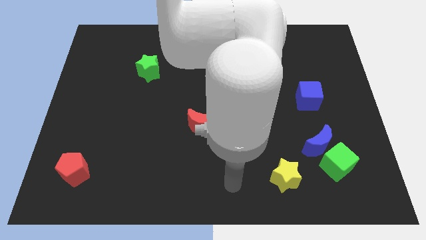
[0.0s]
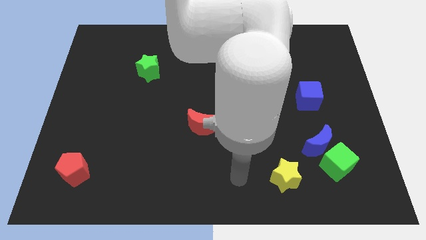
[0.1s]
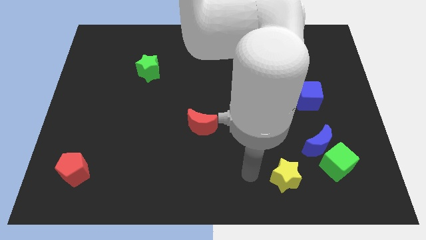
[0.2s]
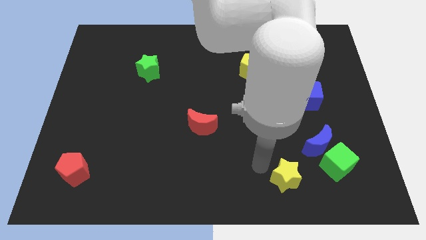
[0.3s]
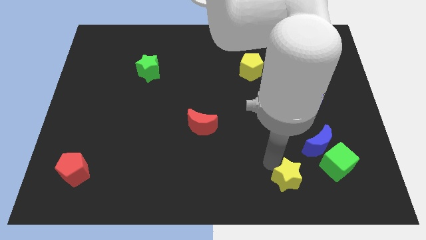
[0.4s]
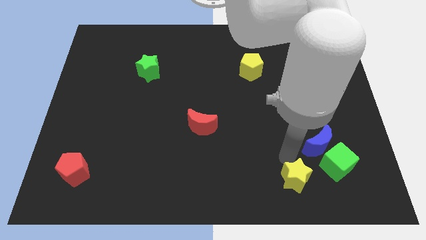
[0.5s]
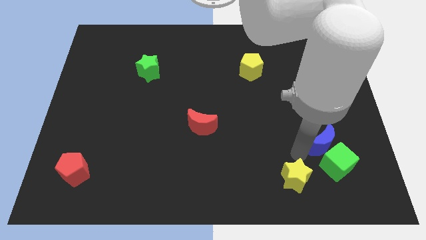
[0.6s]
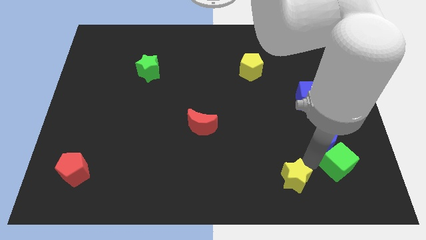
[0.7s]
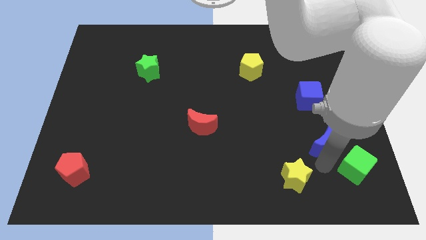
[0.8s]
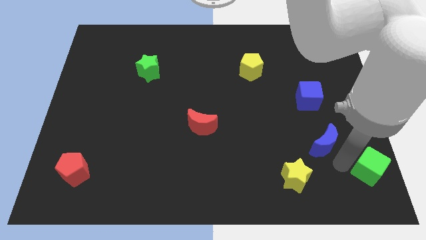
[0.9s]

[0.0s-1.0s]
separate the blue moon from the green cube

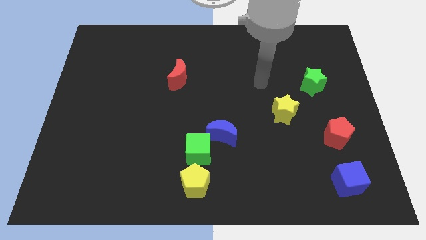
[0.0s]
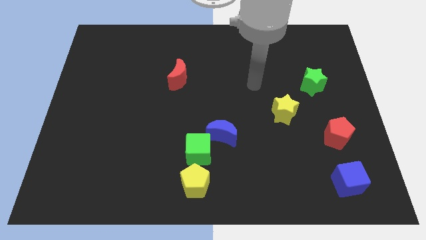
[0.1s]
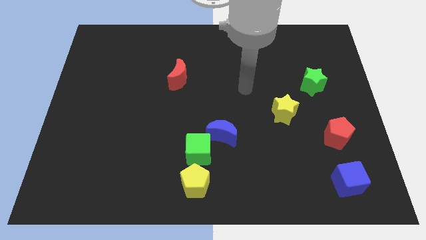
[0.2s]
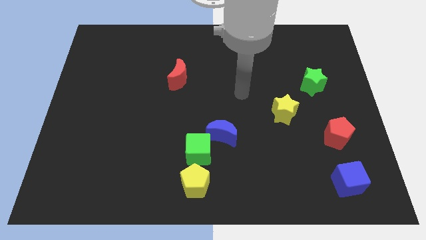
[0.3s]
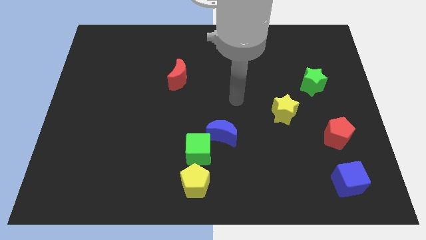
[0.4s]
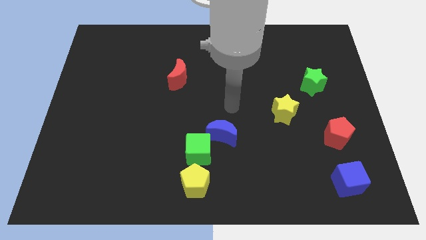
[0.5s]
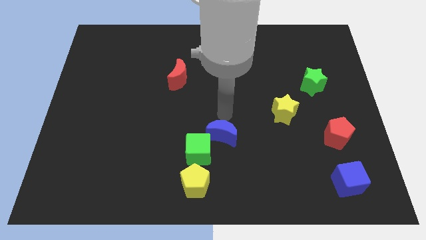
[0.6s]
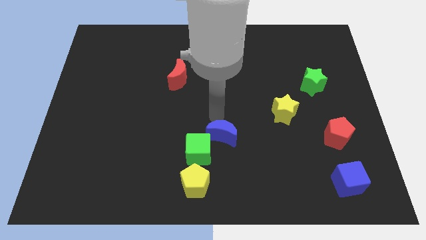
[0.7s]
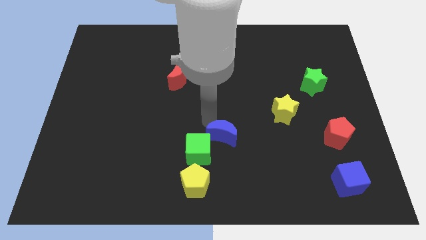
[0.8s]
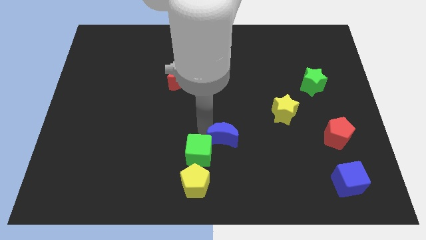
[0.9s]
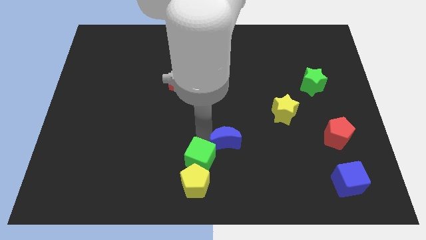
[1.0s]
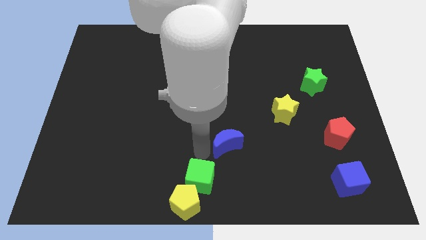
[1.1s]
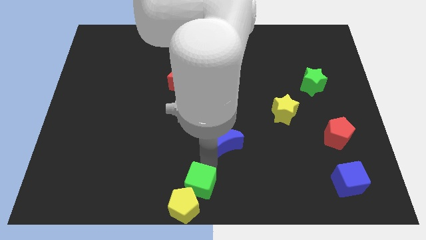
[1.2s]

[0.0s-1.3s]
move the blue moon away from the green cube

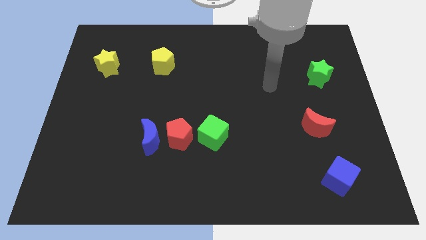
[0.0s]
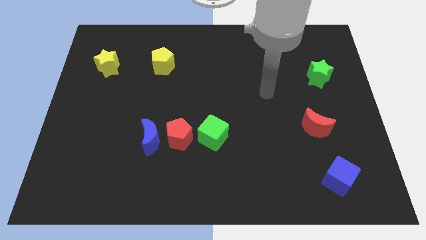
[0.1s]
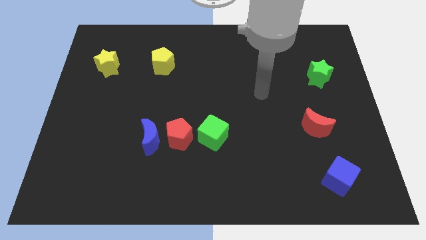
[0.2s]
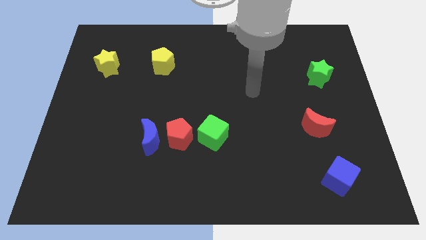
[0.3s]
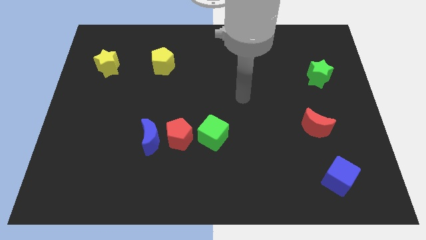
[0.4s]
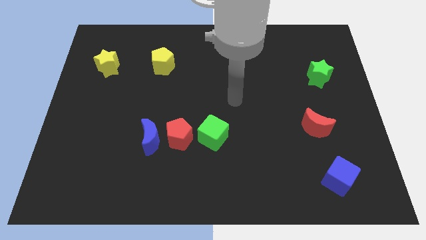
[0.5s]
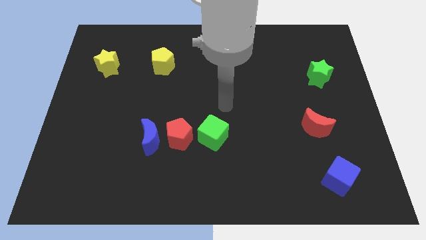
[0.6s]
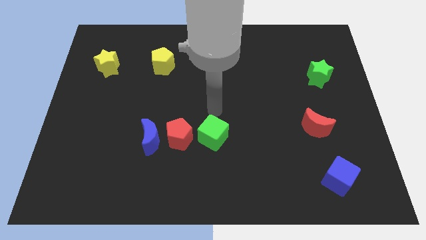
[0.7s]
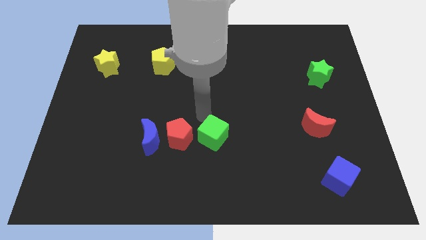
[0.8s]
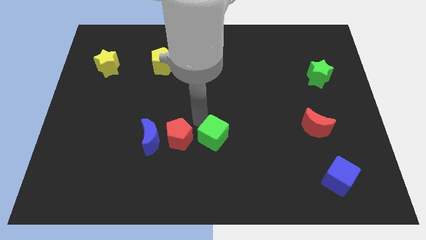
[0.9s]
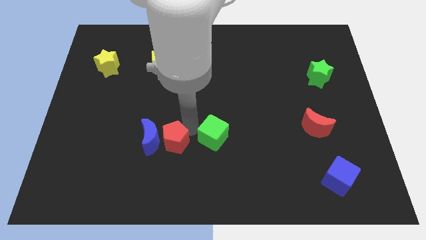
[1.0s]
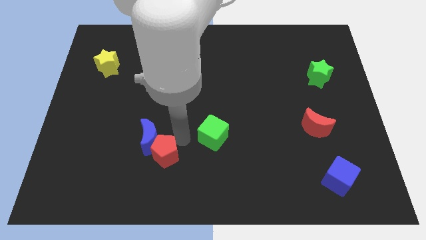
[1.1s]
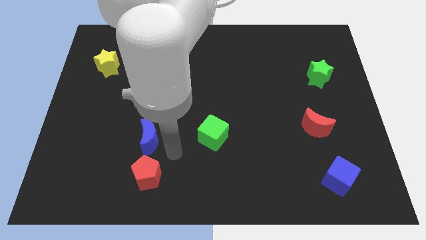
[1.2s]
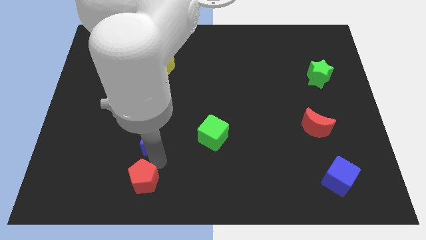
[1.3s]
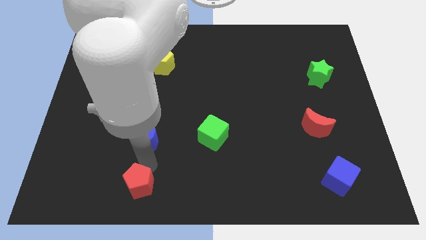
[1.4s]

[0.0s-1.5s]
pull the blue moon apart from the red pentagon

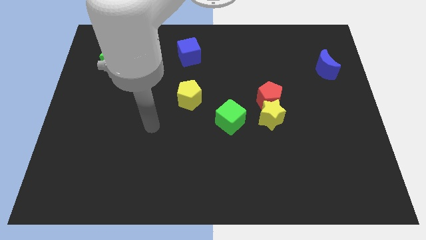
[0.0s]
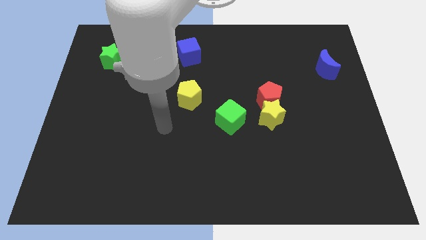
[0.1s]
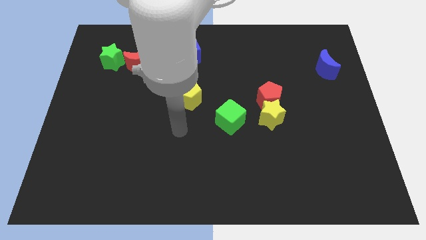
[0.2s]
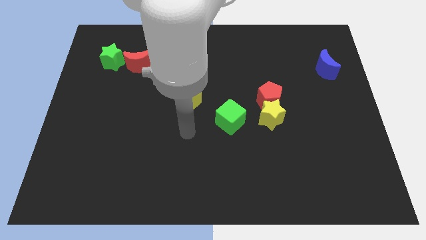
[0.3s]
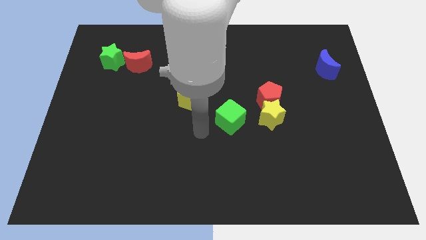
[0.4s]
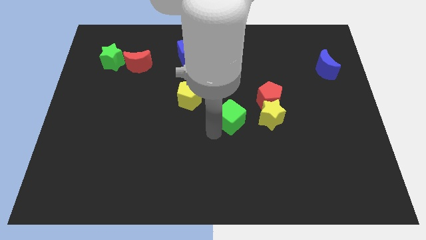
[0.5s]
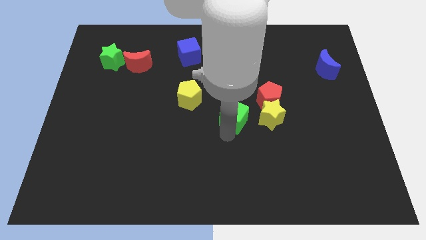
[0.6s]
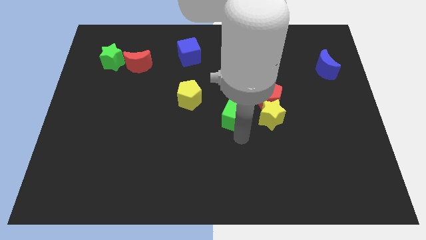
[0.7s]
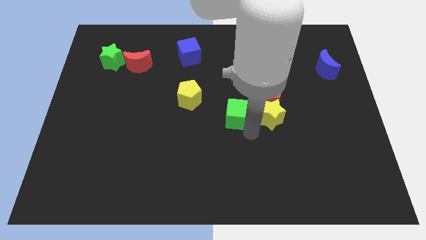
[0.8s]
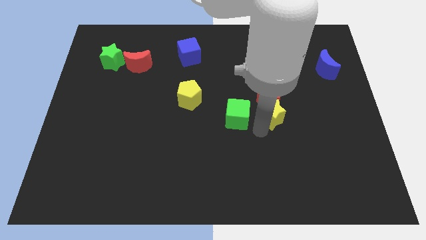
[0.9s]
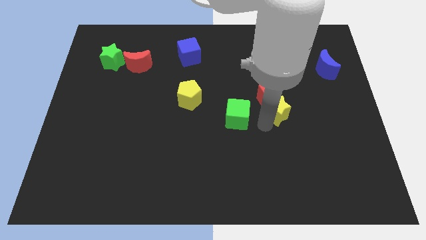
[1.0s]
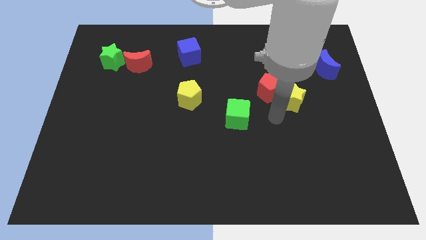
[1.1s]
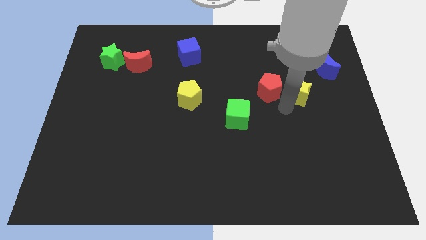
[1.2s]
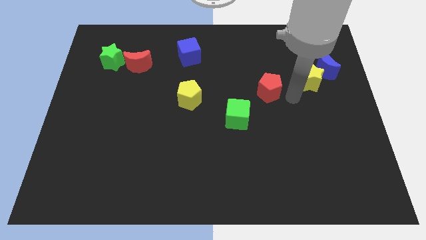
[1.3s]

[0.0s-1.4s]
move the red pentagon away from the yellow star

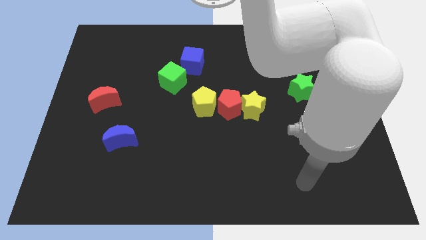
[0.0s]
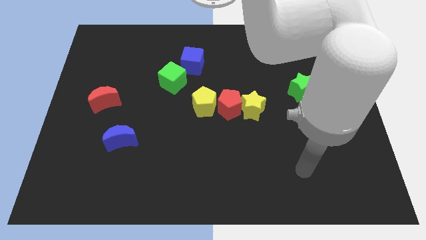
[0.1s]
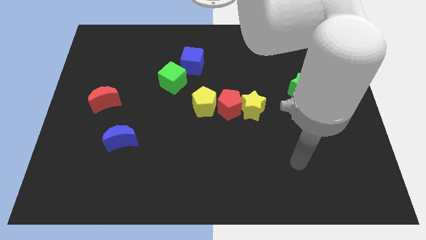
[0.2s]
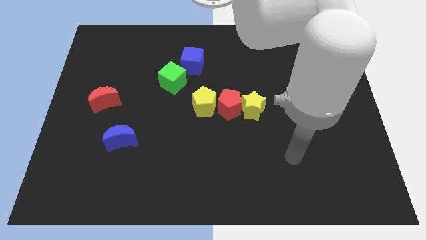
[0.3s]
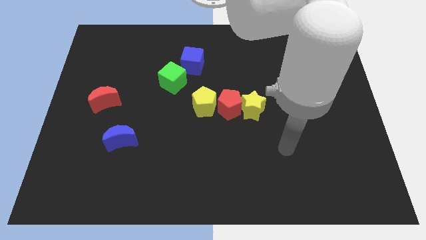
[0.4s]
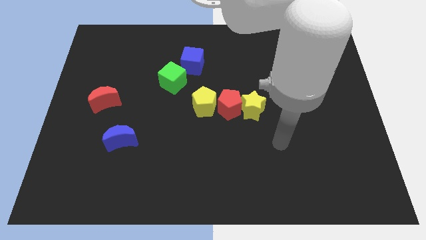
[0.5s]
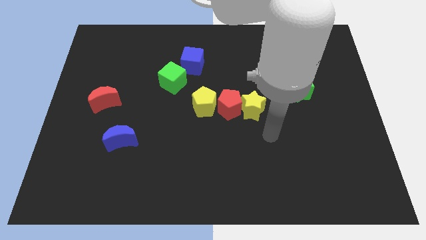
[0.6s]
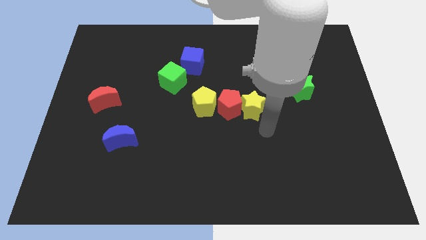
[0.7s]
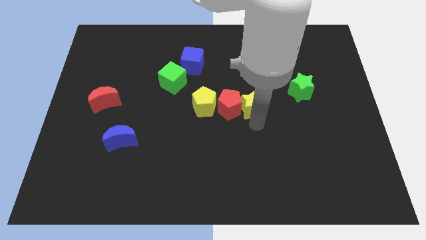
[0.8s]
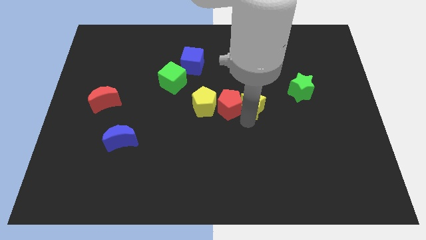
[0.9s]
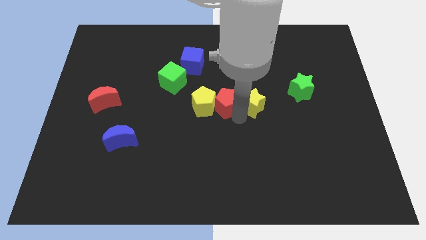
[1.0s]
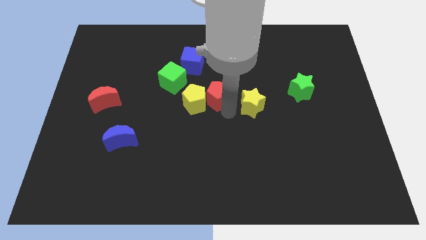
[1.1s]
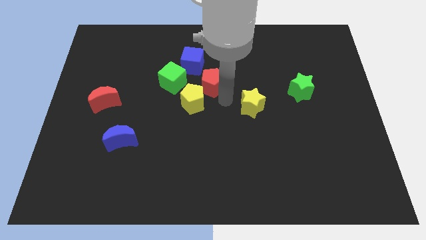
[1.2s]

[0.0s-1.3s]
separate the yellow star from the red pentagon

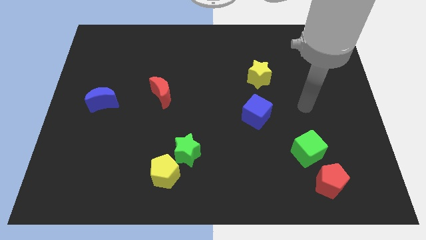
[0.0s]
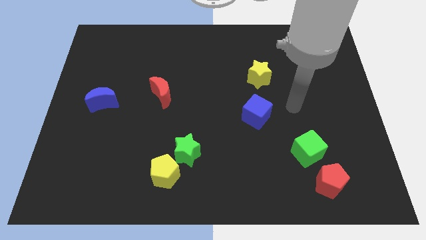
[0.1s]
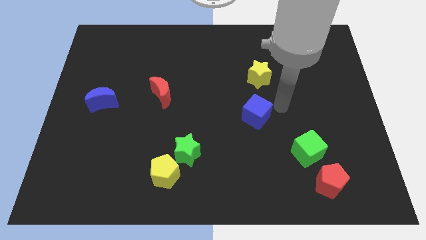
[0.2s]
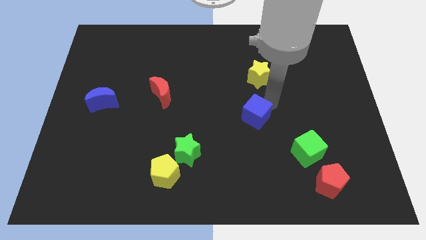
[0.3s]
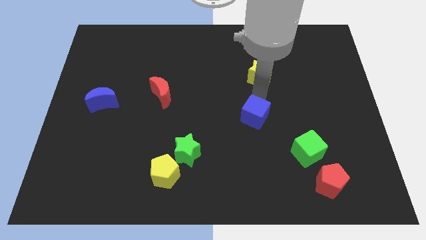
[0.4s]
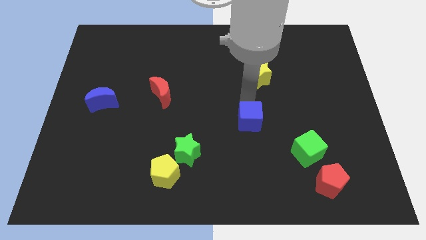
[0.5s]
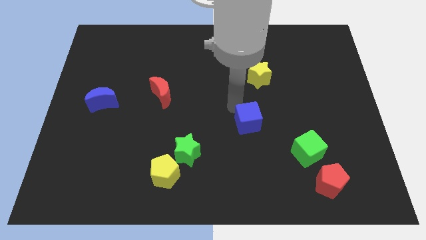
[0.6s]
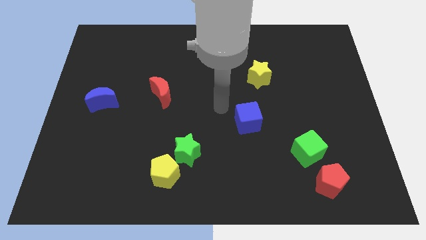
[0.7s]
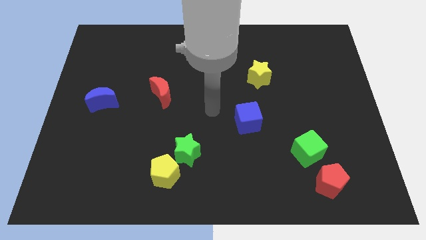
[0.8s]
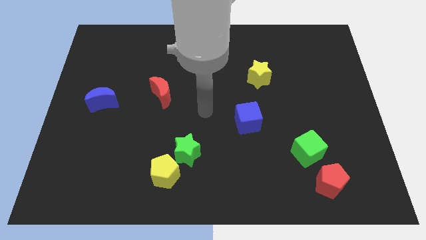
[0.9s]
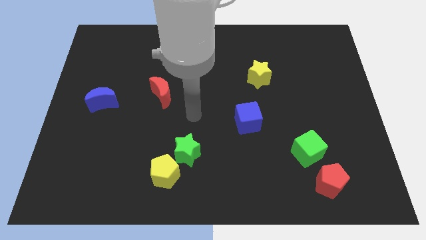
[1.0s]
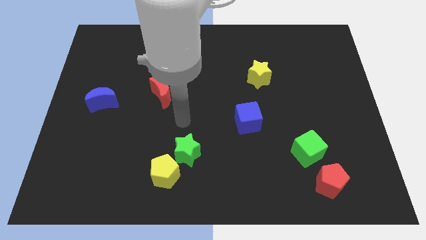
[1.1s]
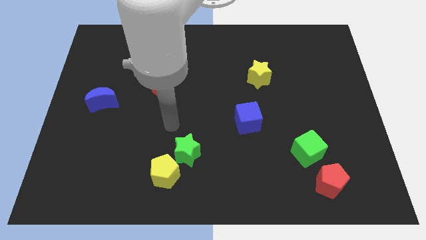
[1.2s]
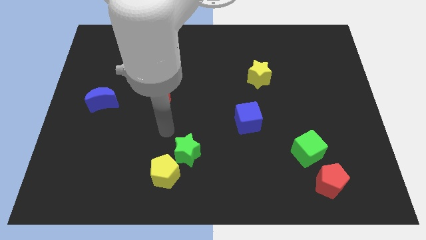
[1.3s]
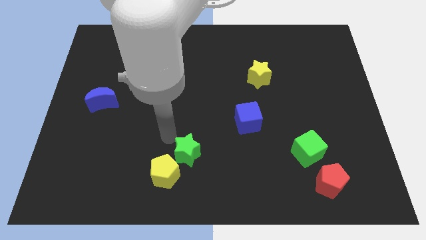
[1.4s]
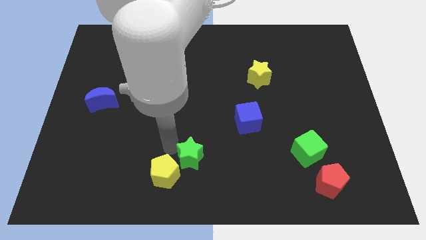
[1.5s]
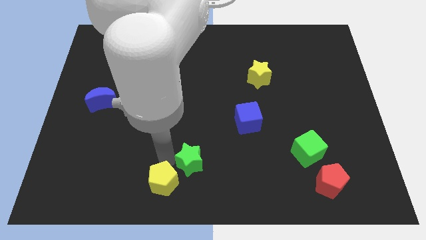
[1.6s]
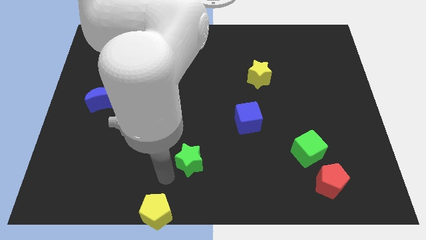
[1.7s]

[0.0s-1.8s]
move the green star away from the yellow pentagon

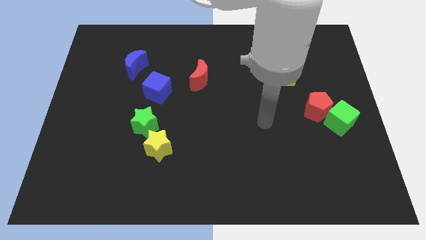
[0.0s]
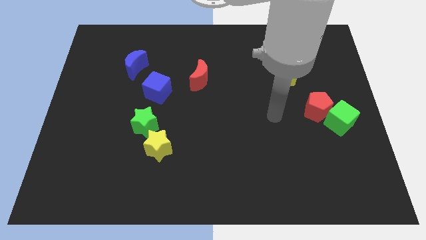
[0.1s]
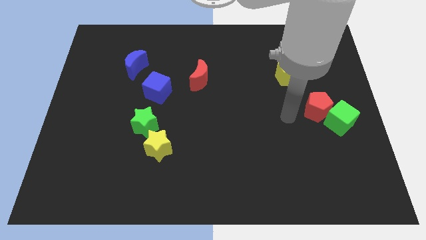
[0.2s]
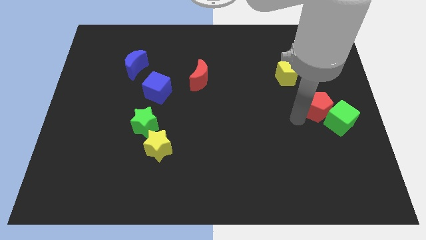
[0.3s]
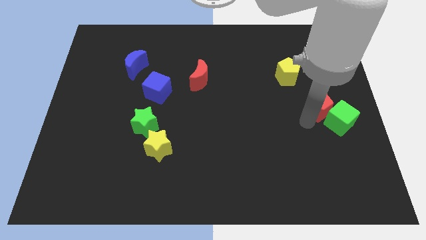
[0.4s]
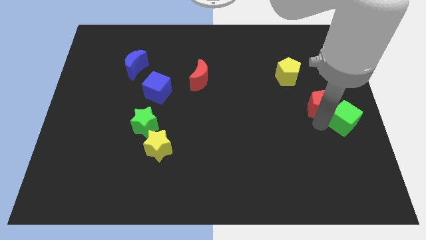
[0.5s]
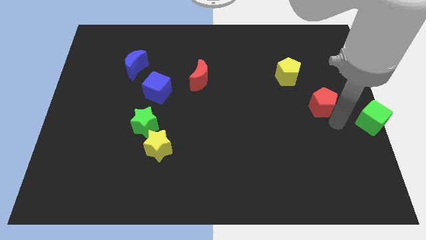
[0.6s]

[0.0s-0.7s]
move the red pentagon away from the green cube

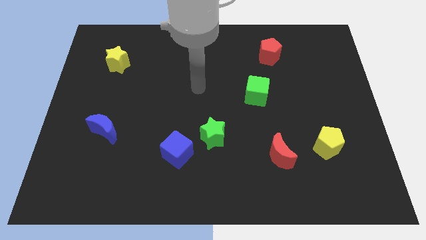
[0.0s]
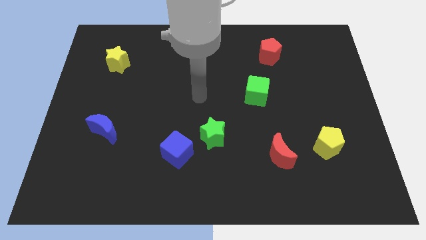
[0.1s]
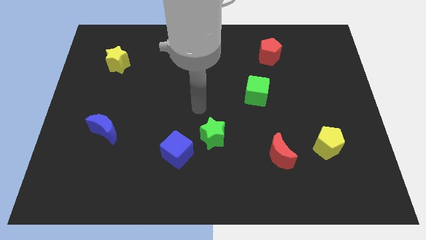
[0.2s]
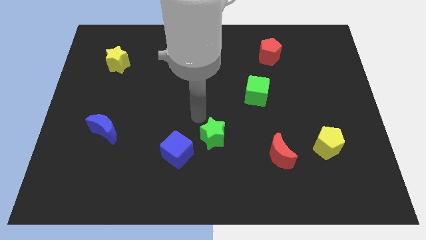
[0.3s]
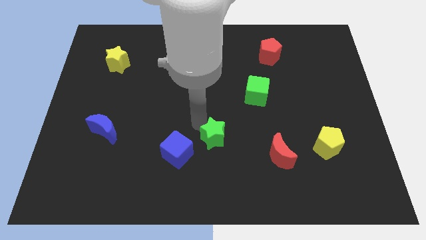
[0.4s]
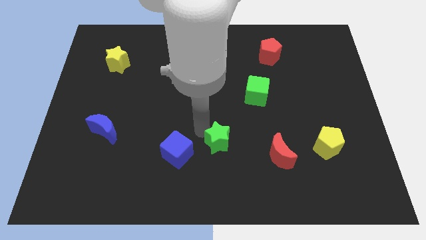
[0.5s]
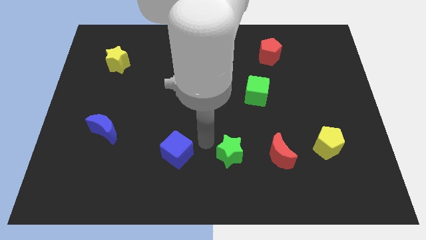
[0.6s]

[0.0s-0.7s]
pull the blue cube apart from the green star
